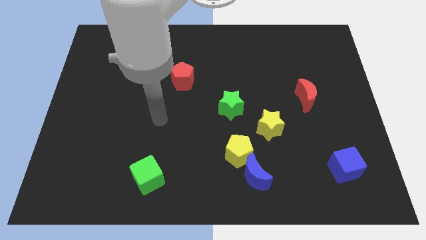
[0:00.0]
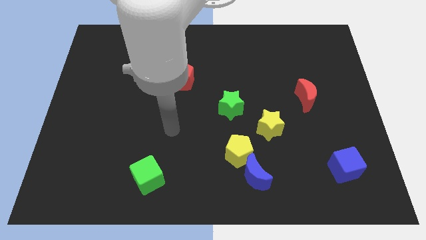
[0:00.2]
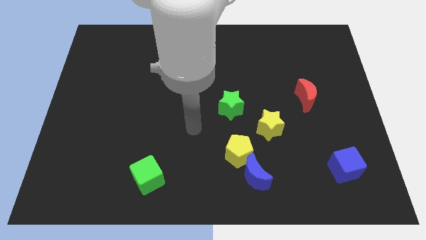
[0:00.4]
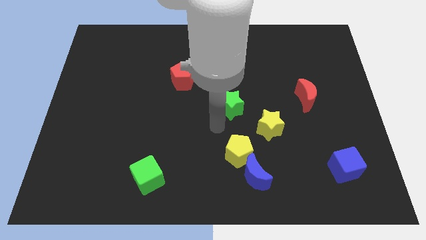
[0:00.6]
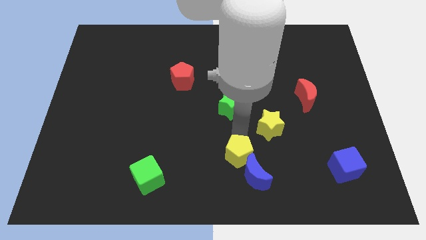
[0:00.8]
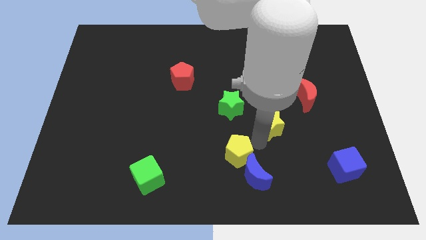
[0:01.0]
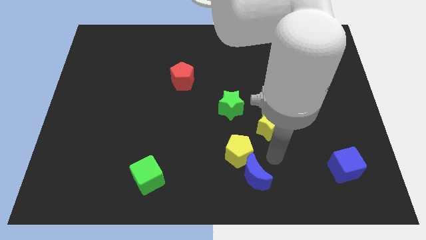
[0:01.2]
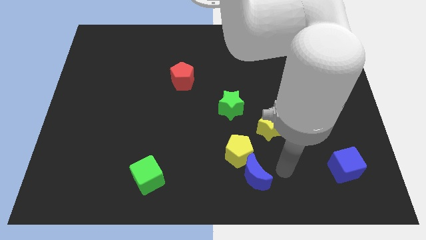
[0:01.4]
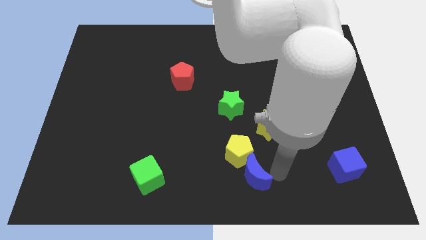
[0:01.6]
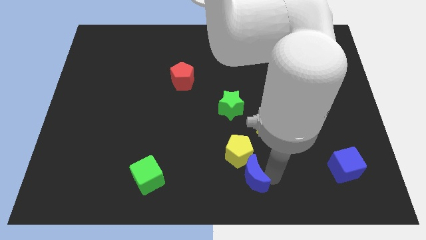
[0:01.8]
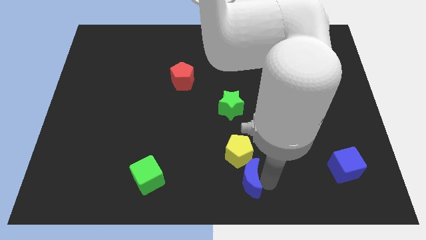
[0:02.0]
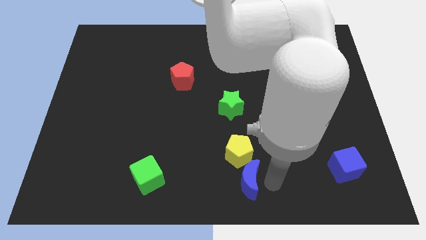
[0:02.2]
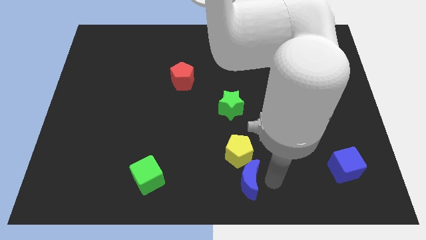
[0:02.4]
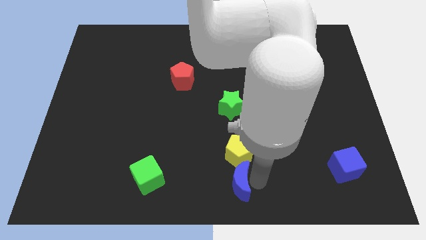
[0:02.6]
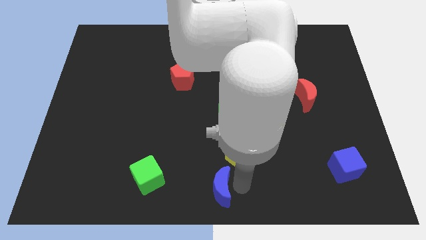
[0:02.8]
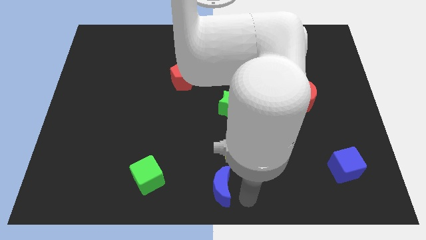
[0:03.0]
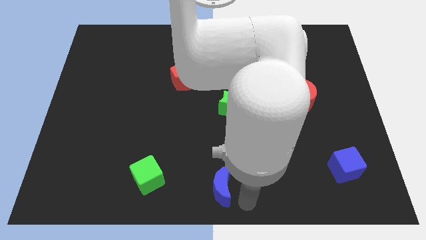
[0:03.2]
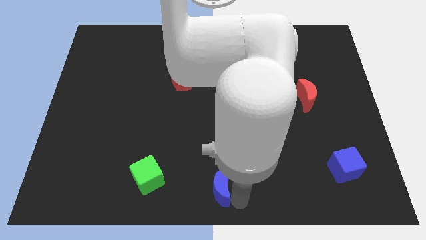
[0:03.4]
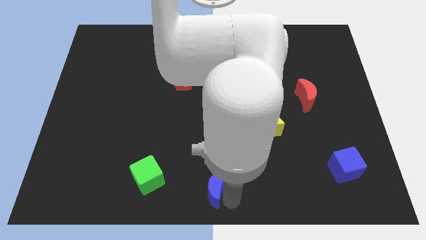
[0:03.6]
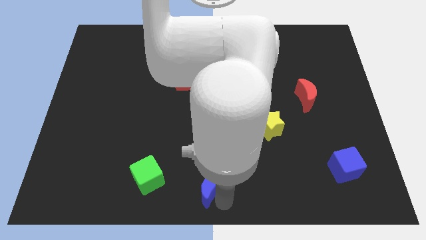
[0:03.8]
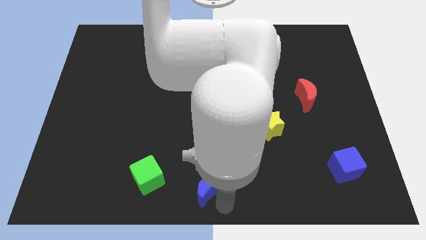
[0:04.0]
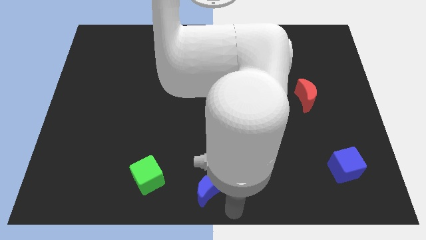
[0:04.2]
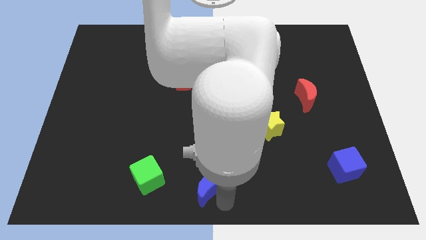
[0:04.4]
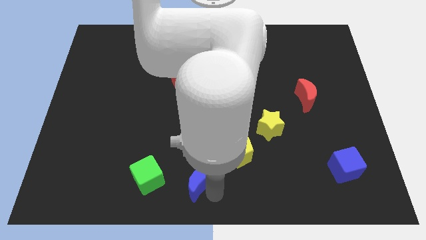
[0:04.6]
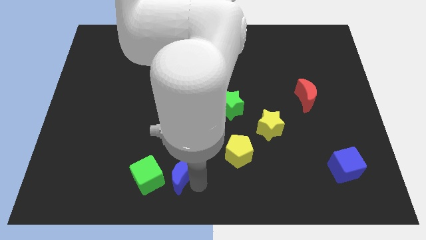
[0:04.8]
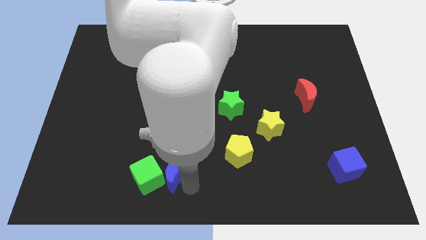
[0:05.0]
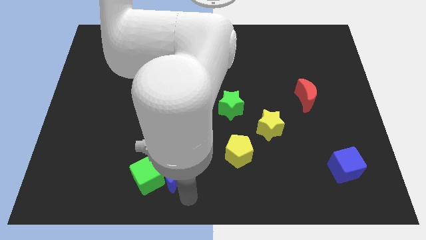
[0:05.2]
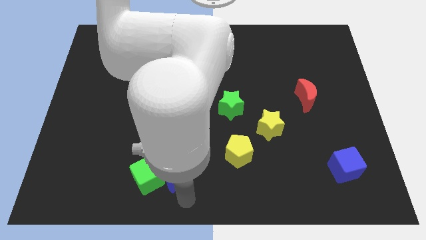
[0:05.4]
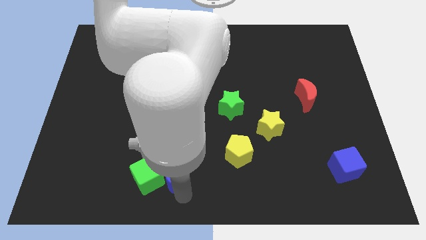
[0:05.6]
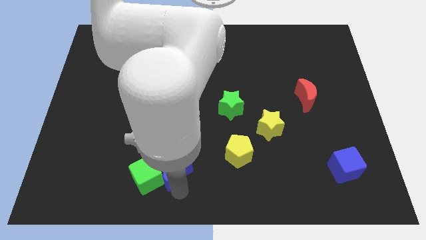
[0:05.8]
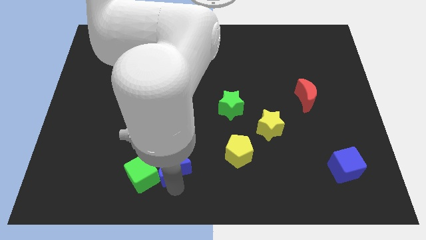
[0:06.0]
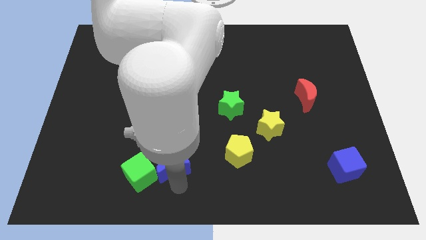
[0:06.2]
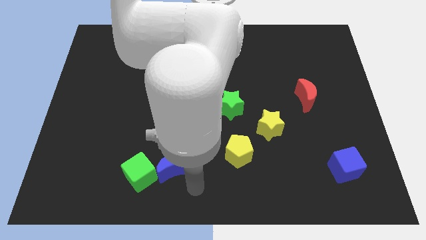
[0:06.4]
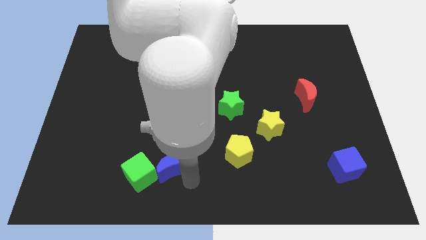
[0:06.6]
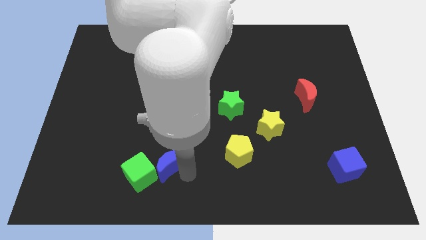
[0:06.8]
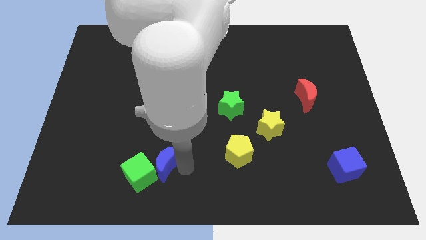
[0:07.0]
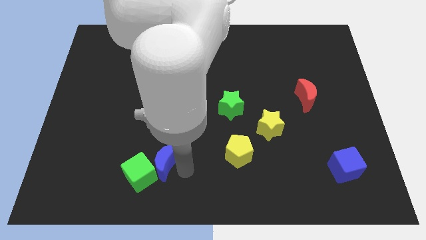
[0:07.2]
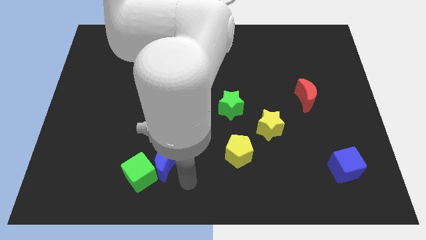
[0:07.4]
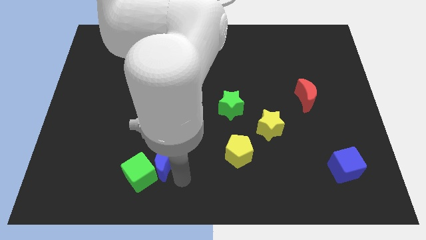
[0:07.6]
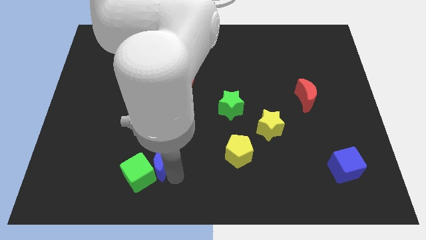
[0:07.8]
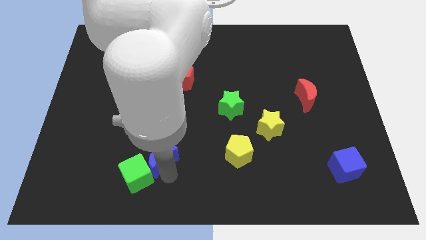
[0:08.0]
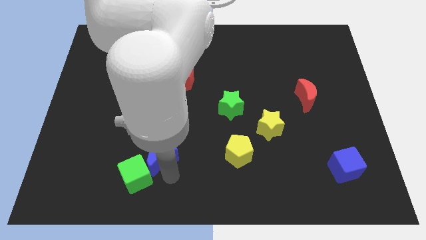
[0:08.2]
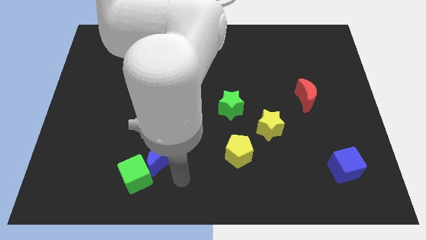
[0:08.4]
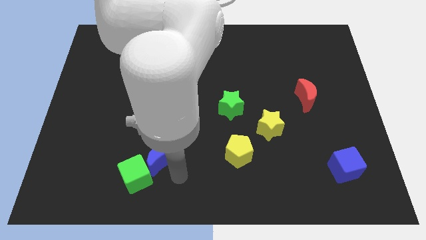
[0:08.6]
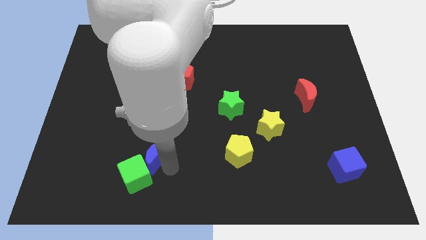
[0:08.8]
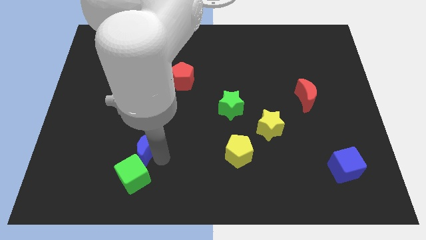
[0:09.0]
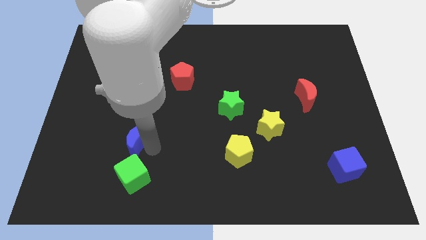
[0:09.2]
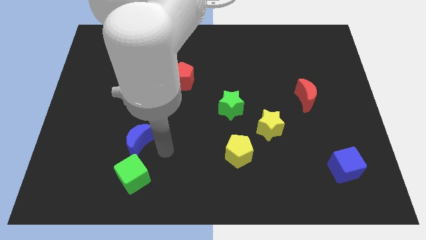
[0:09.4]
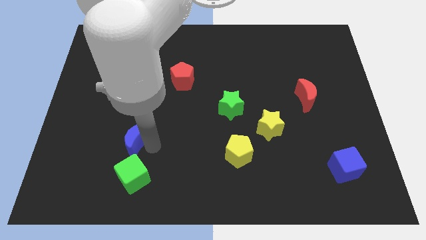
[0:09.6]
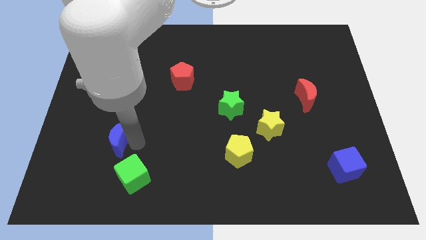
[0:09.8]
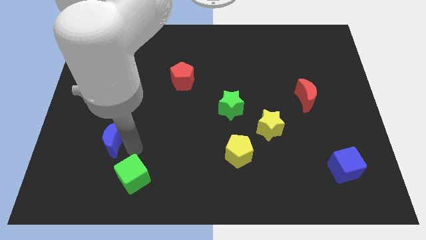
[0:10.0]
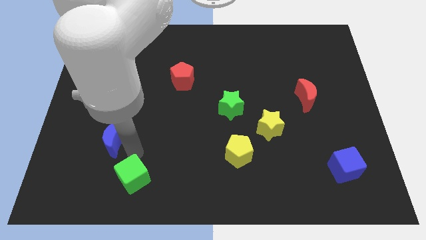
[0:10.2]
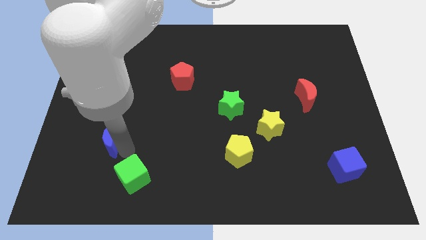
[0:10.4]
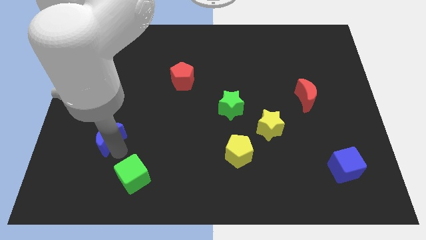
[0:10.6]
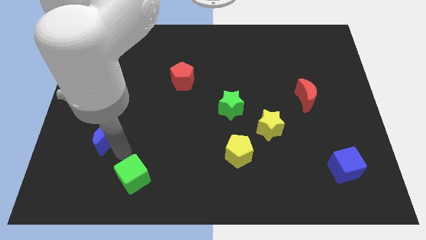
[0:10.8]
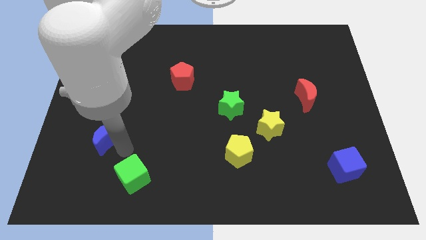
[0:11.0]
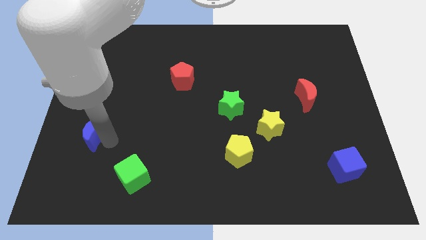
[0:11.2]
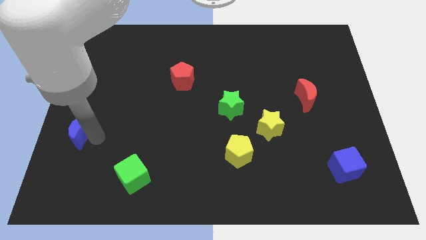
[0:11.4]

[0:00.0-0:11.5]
put the blue moon to the left side of the board
